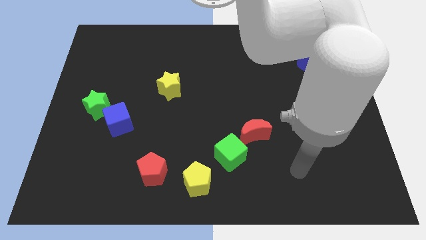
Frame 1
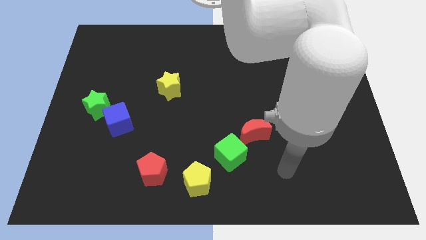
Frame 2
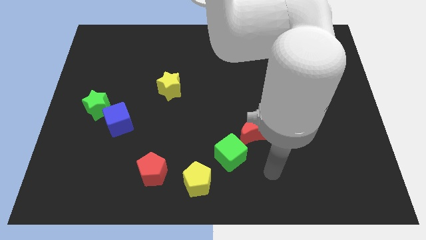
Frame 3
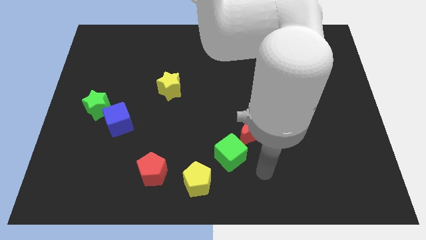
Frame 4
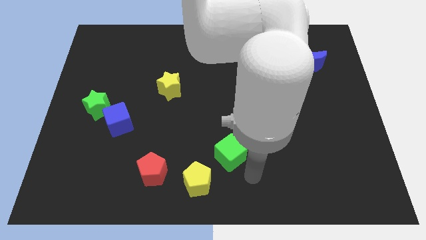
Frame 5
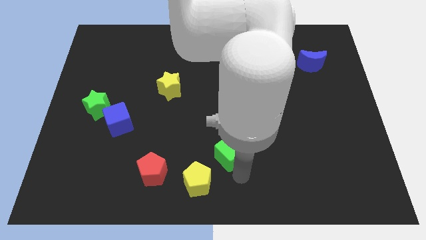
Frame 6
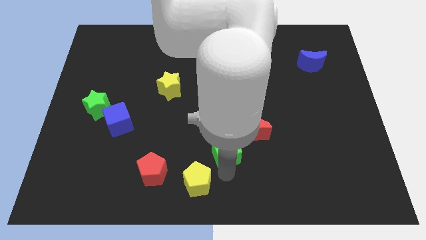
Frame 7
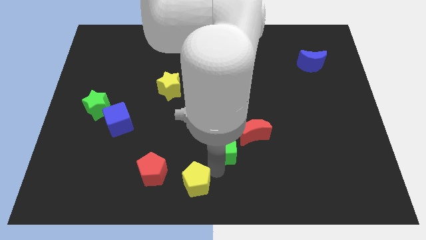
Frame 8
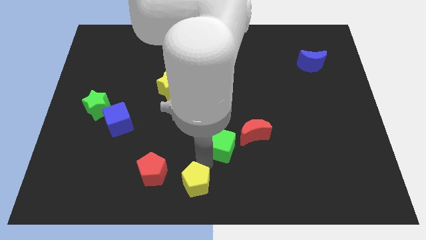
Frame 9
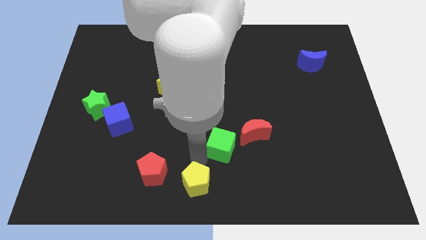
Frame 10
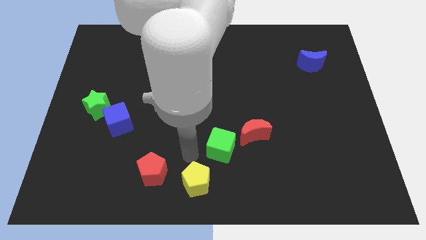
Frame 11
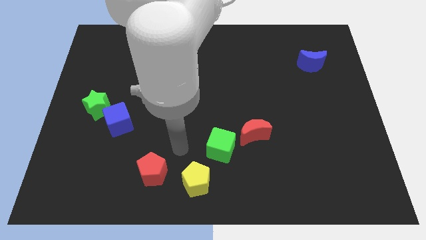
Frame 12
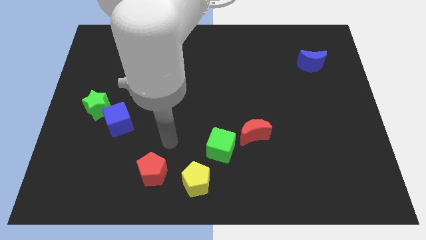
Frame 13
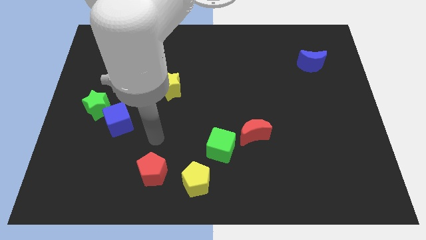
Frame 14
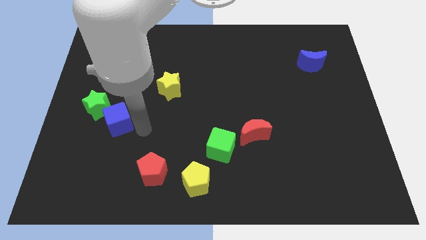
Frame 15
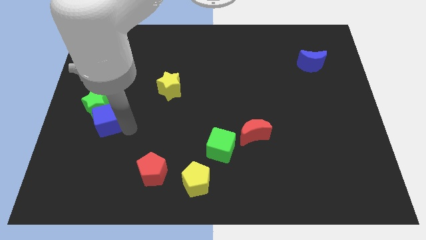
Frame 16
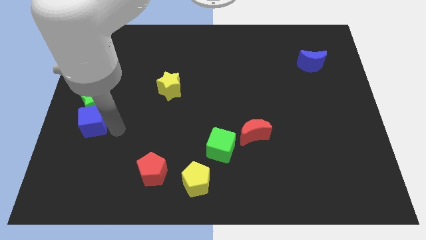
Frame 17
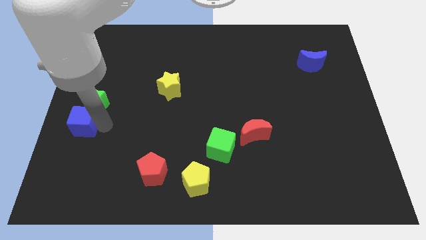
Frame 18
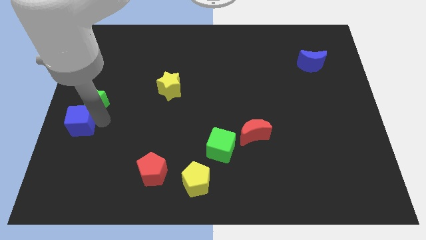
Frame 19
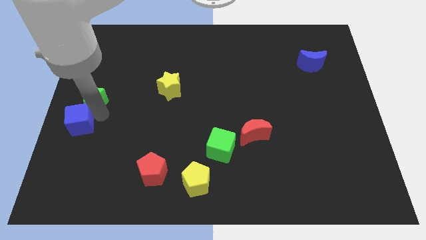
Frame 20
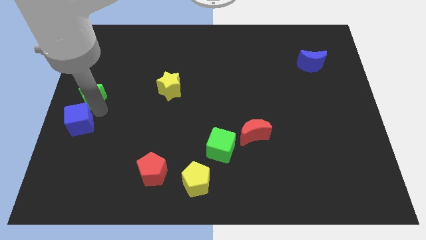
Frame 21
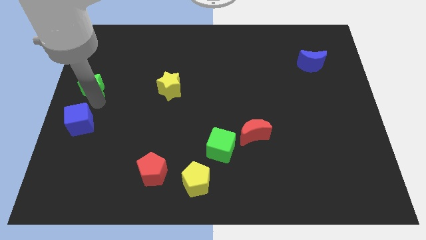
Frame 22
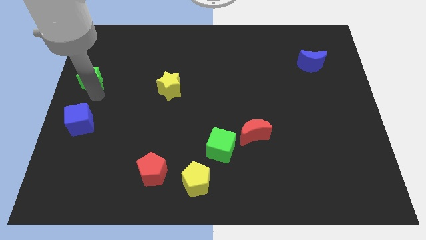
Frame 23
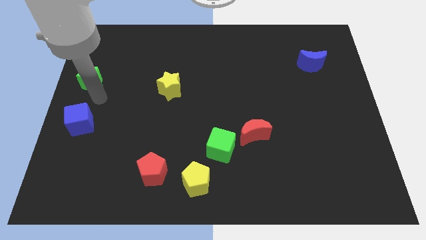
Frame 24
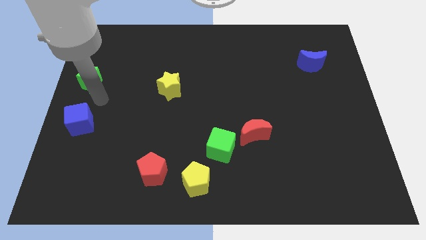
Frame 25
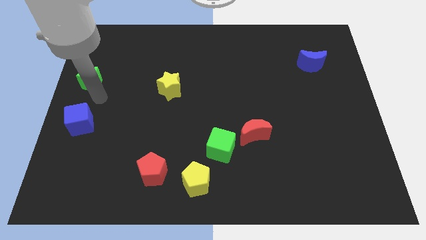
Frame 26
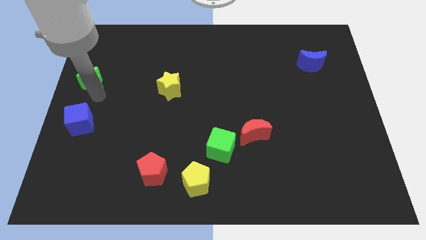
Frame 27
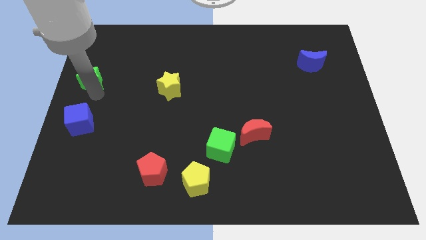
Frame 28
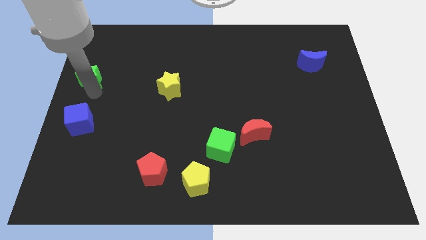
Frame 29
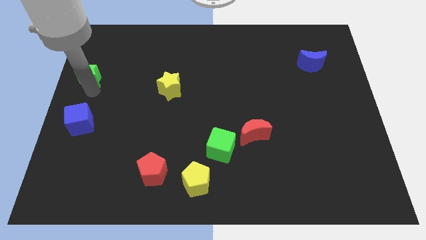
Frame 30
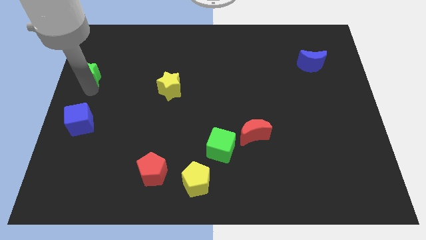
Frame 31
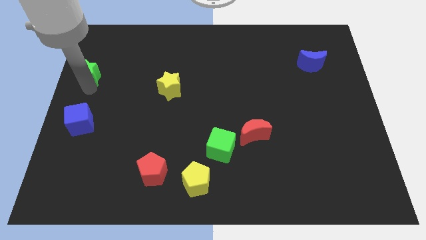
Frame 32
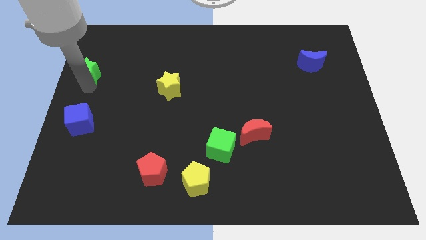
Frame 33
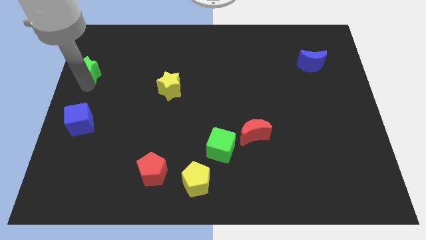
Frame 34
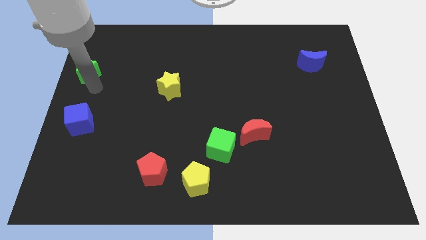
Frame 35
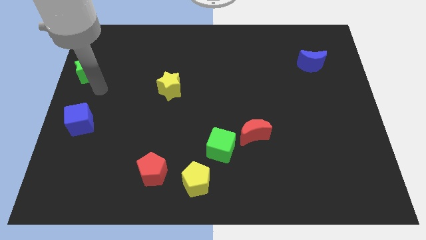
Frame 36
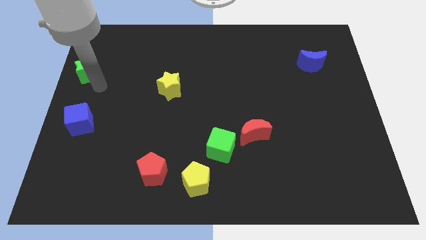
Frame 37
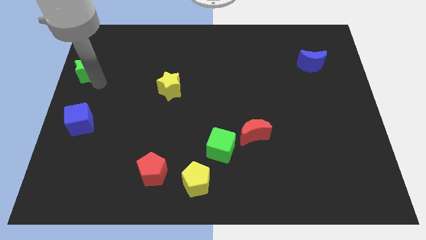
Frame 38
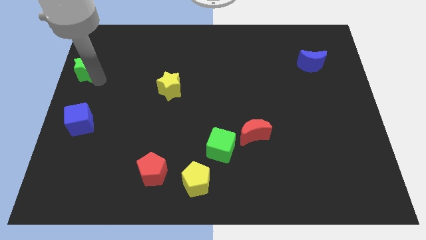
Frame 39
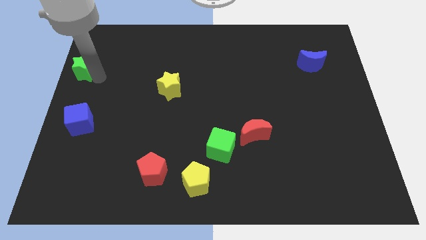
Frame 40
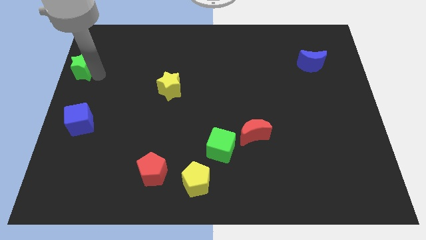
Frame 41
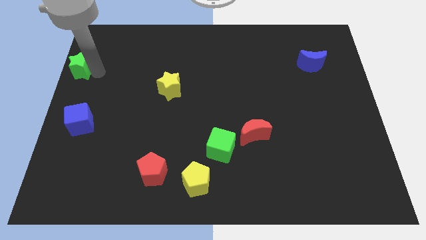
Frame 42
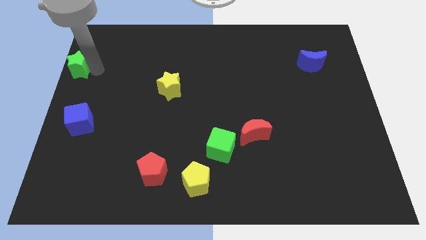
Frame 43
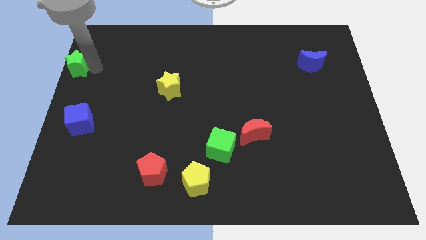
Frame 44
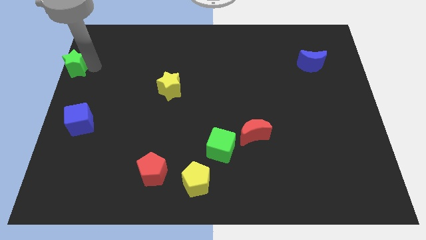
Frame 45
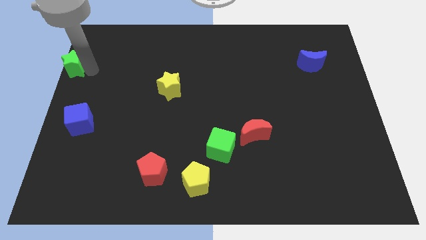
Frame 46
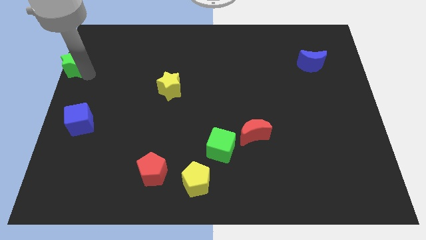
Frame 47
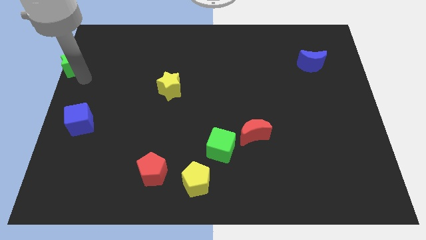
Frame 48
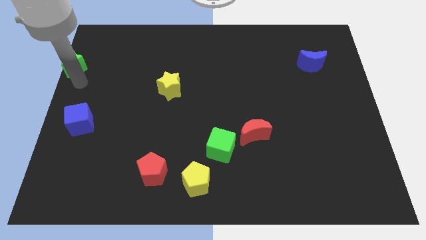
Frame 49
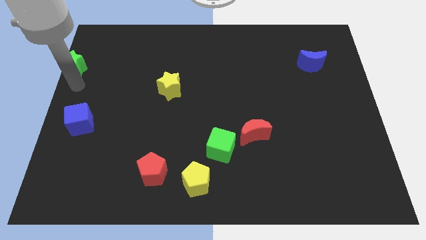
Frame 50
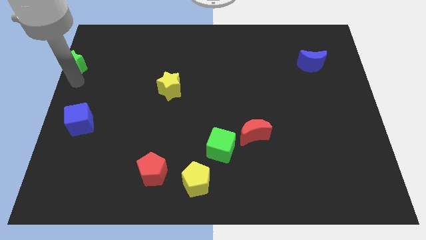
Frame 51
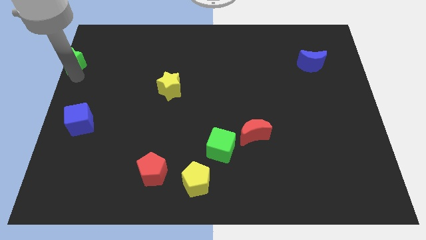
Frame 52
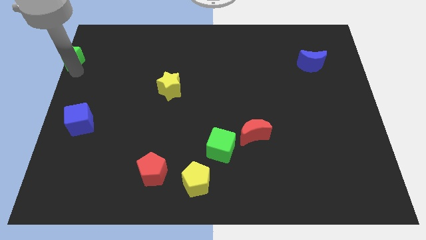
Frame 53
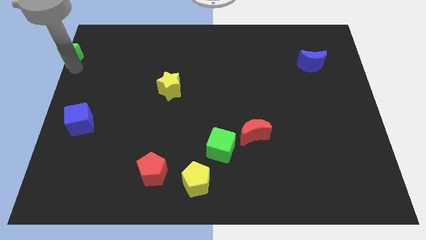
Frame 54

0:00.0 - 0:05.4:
push the green star to the top left
